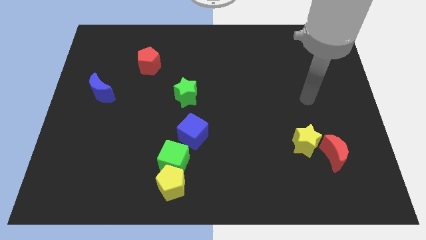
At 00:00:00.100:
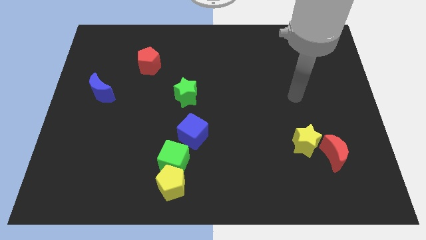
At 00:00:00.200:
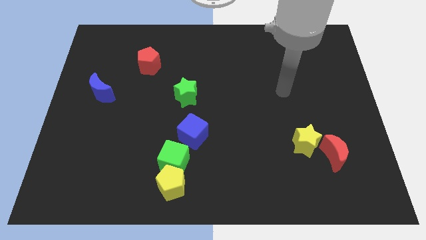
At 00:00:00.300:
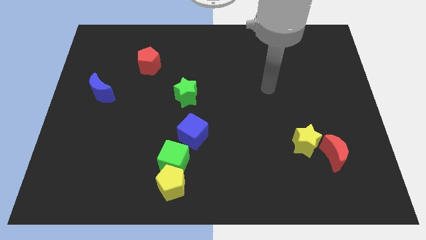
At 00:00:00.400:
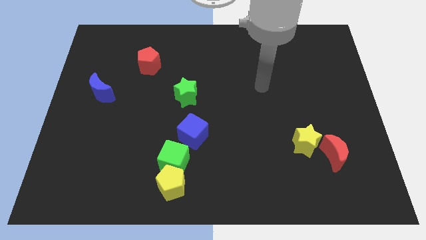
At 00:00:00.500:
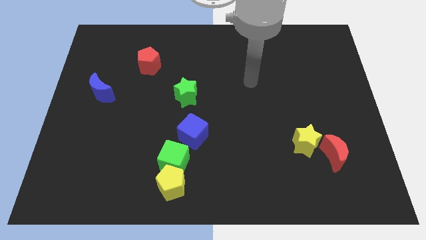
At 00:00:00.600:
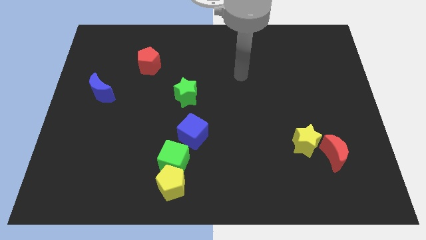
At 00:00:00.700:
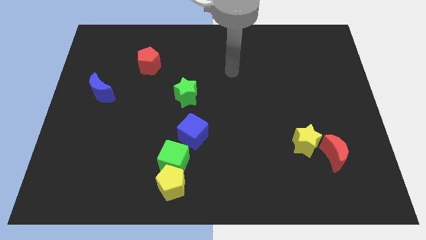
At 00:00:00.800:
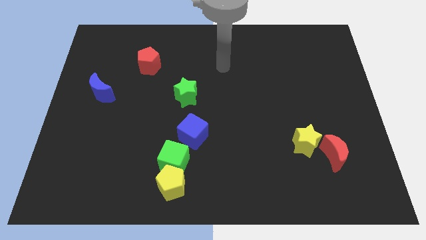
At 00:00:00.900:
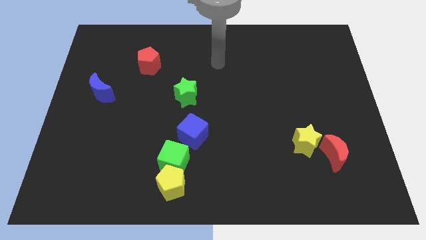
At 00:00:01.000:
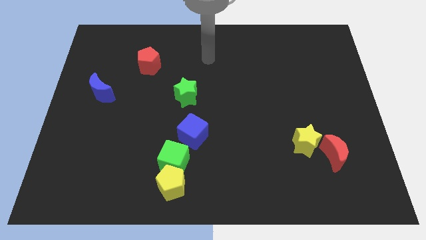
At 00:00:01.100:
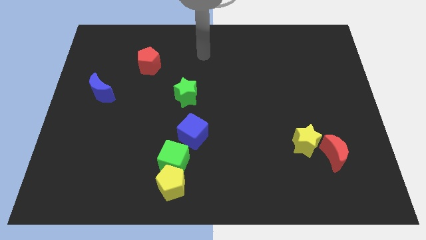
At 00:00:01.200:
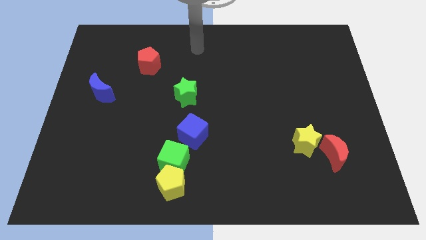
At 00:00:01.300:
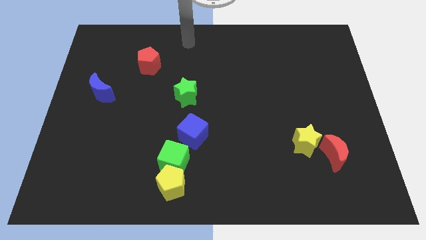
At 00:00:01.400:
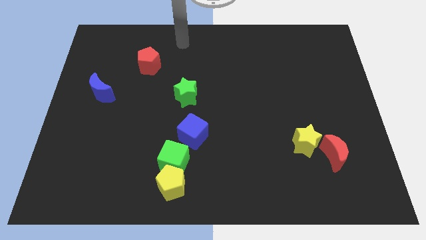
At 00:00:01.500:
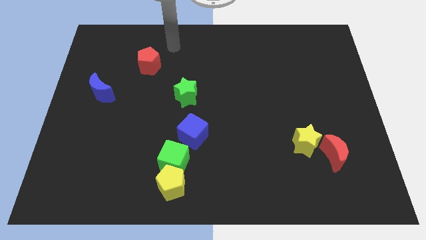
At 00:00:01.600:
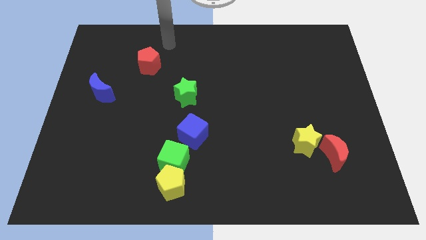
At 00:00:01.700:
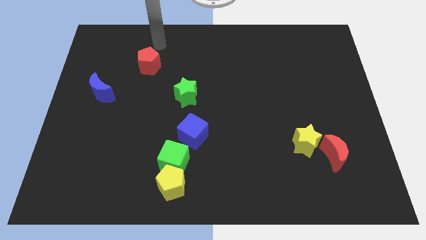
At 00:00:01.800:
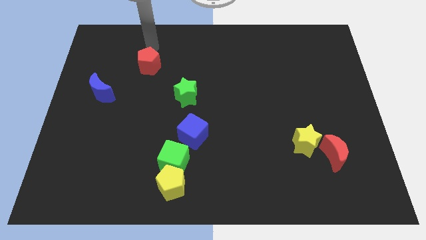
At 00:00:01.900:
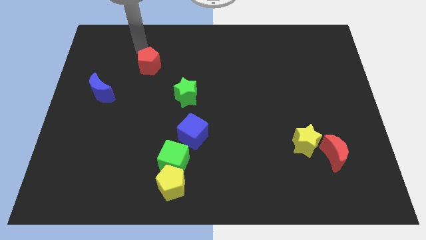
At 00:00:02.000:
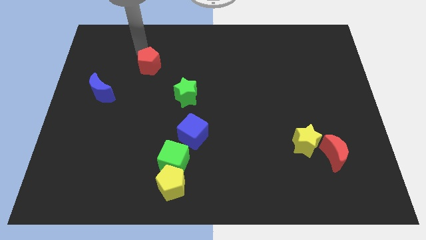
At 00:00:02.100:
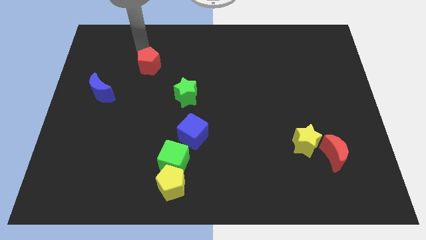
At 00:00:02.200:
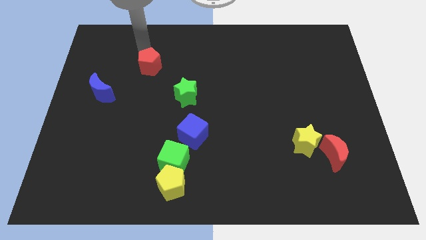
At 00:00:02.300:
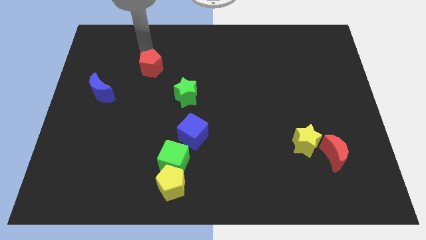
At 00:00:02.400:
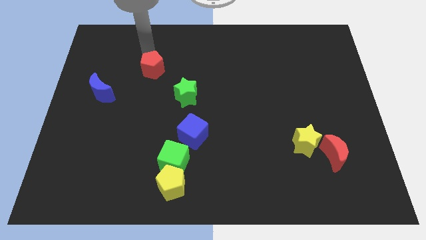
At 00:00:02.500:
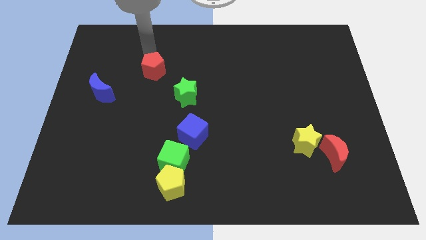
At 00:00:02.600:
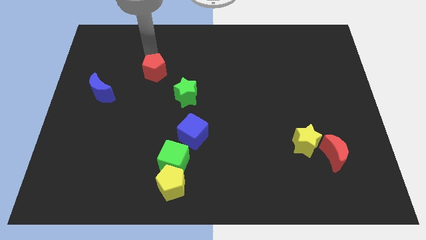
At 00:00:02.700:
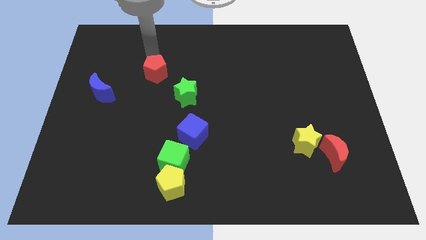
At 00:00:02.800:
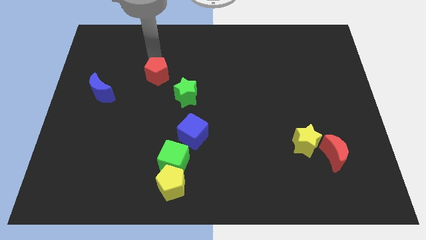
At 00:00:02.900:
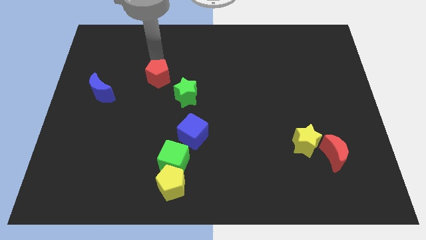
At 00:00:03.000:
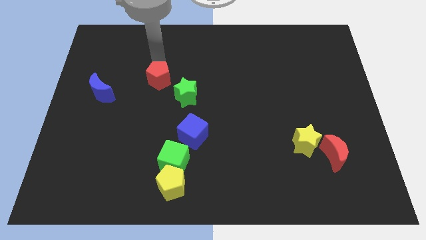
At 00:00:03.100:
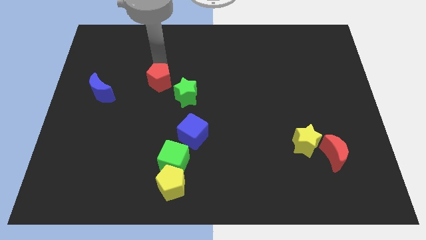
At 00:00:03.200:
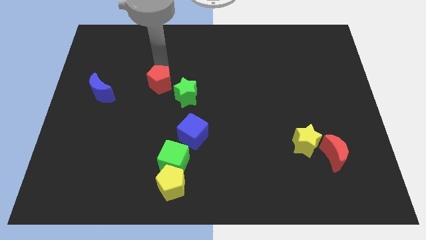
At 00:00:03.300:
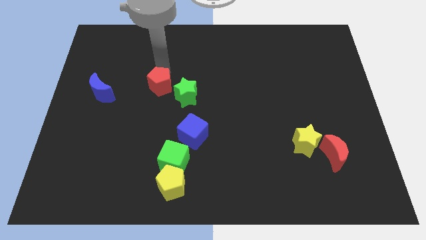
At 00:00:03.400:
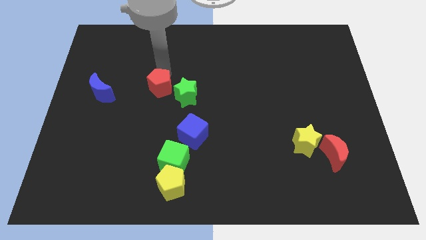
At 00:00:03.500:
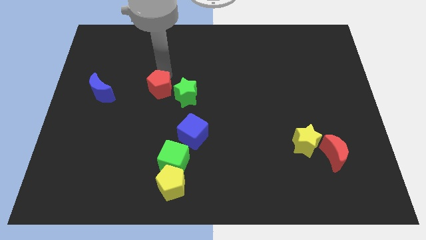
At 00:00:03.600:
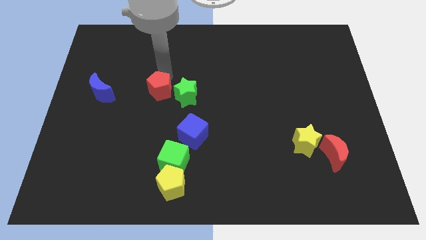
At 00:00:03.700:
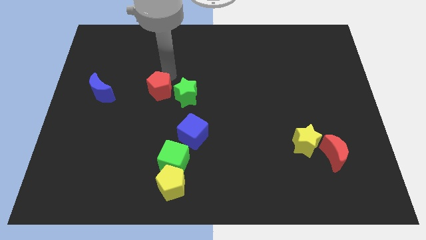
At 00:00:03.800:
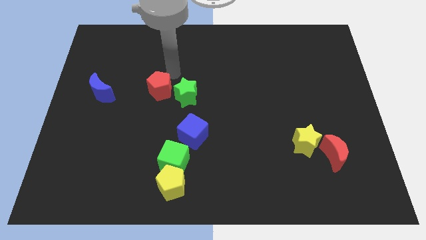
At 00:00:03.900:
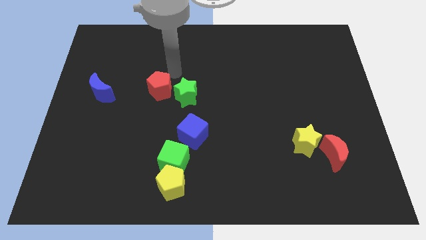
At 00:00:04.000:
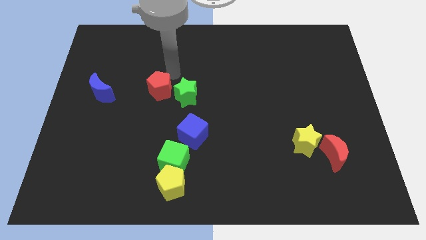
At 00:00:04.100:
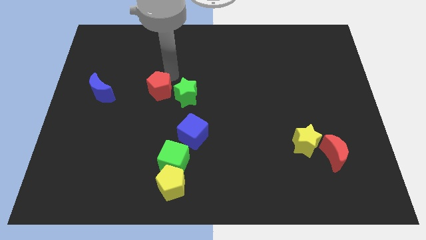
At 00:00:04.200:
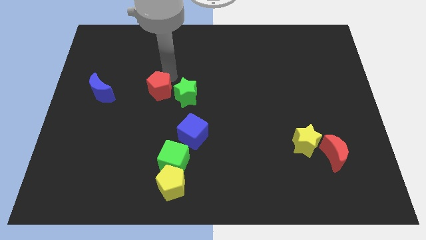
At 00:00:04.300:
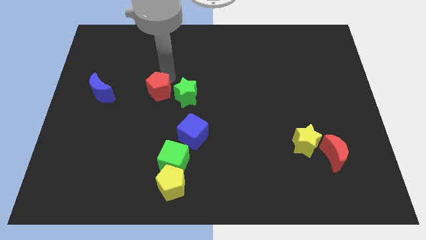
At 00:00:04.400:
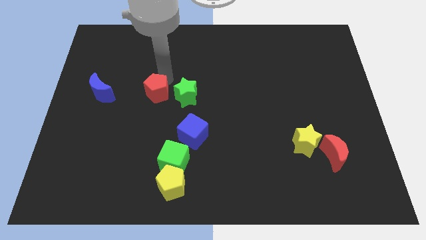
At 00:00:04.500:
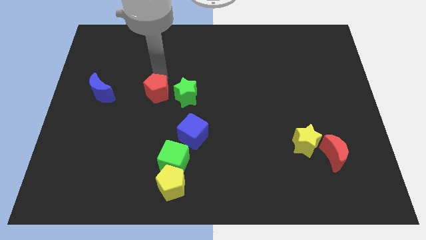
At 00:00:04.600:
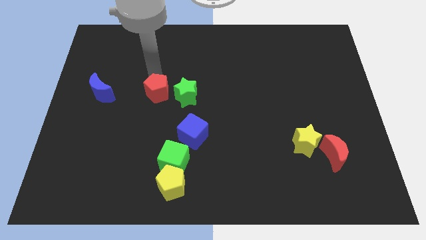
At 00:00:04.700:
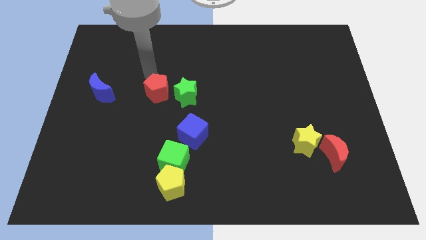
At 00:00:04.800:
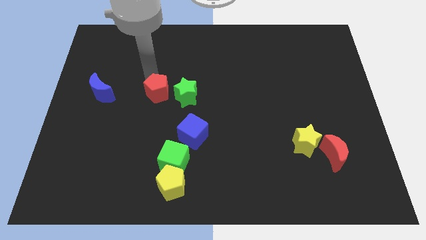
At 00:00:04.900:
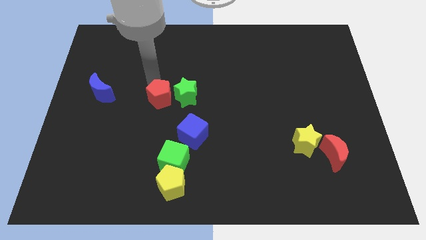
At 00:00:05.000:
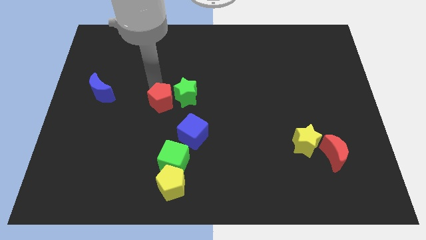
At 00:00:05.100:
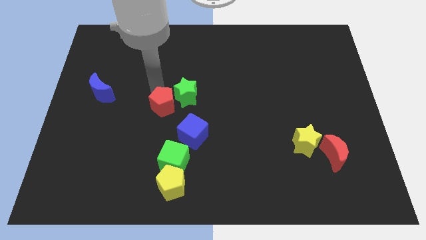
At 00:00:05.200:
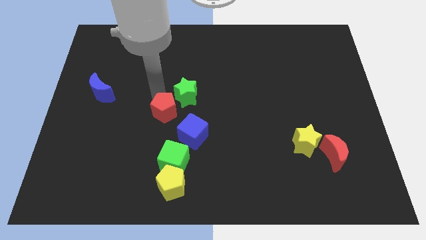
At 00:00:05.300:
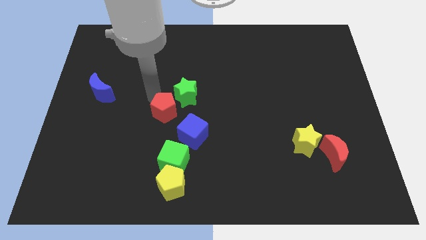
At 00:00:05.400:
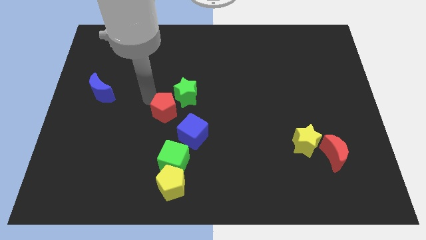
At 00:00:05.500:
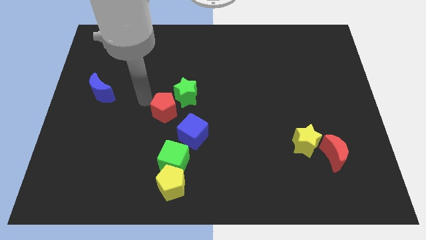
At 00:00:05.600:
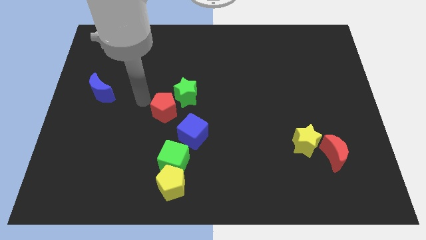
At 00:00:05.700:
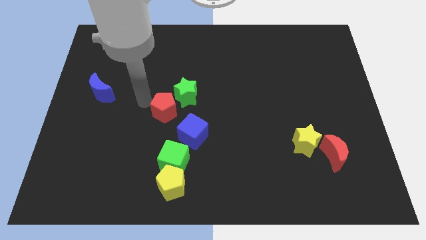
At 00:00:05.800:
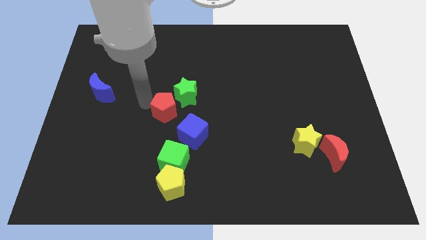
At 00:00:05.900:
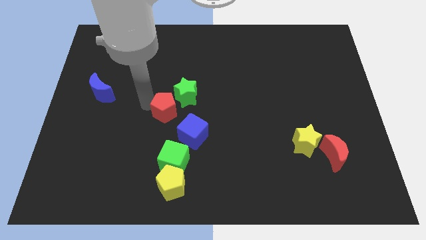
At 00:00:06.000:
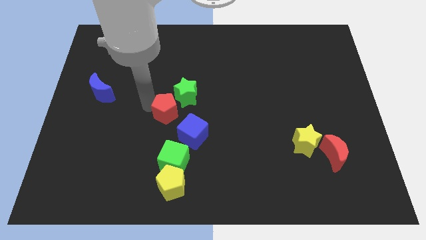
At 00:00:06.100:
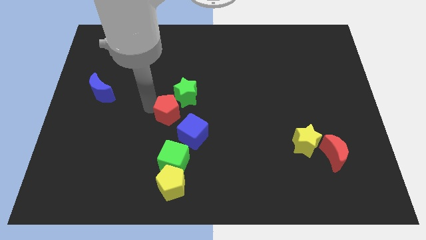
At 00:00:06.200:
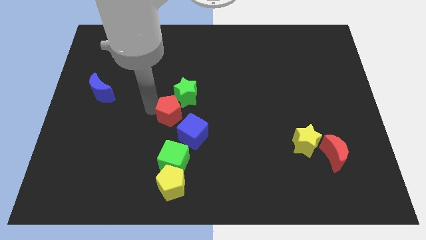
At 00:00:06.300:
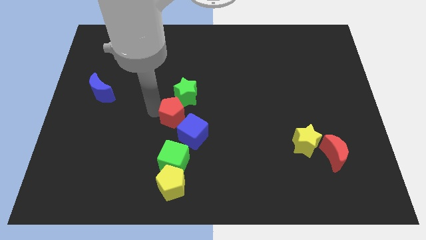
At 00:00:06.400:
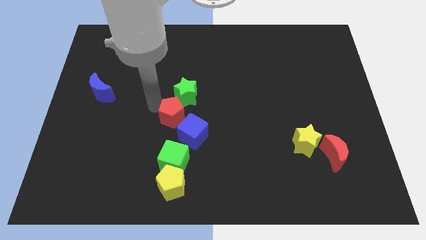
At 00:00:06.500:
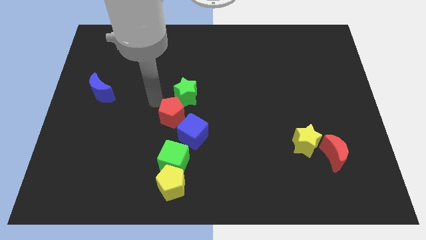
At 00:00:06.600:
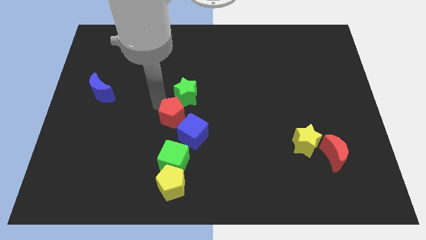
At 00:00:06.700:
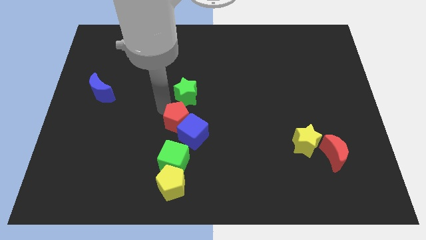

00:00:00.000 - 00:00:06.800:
put the red pentagon to the blue cube

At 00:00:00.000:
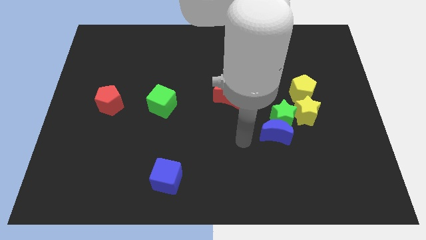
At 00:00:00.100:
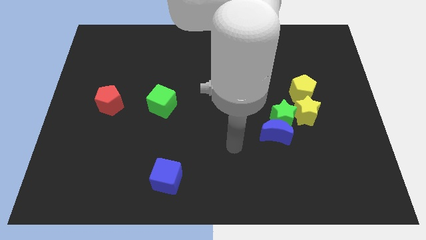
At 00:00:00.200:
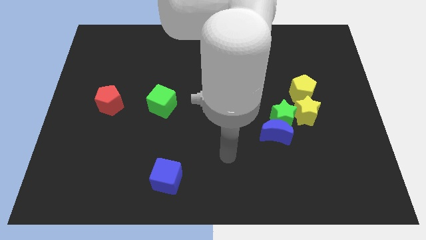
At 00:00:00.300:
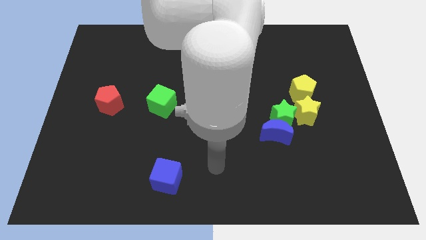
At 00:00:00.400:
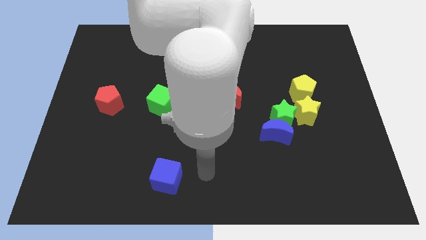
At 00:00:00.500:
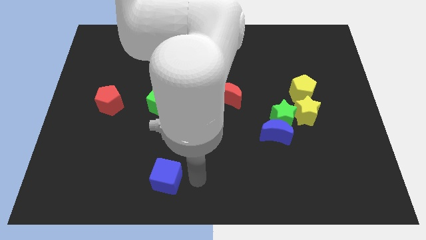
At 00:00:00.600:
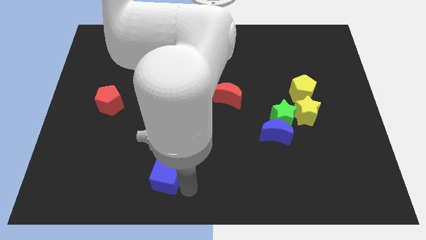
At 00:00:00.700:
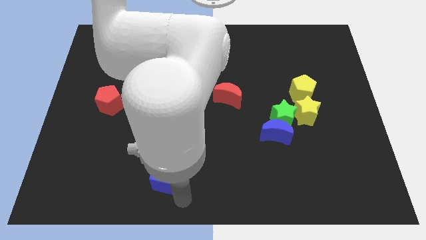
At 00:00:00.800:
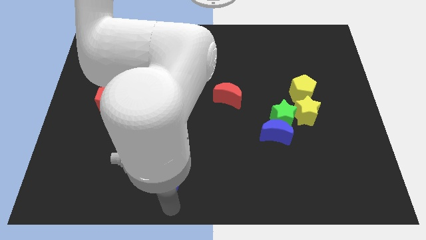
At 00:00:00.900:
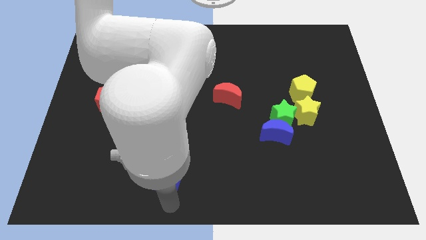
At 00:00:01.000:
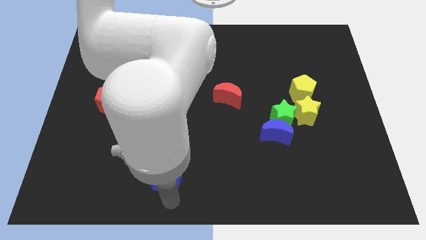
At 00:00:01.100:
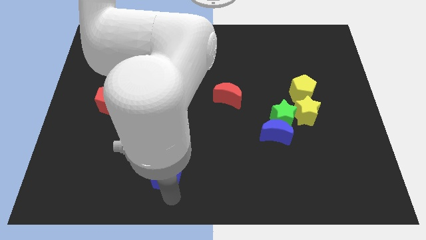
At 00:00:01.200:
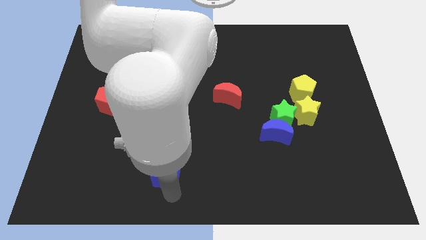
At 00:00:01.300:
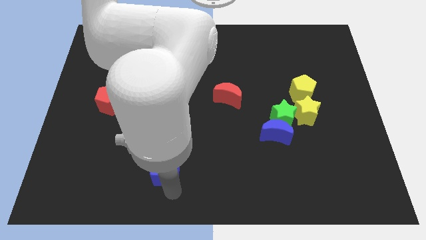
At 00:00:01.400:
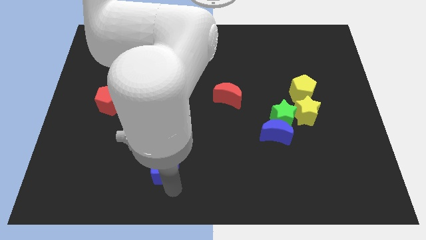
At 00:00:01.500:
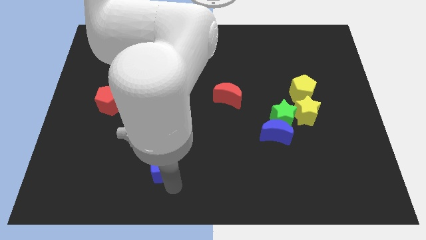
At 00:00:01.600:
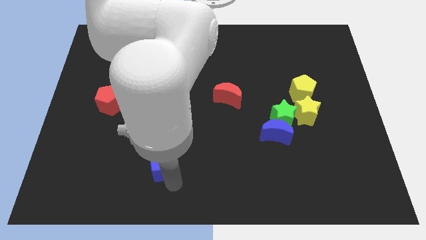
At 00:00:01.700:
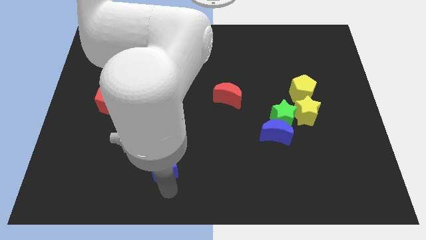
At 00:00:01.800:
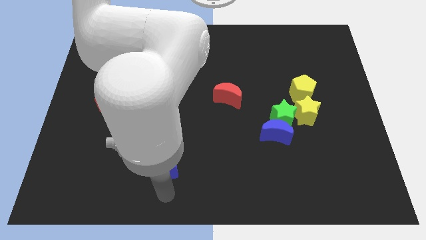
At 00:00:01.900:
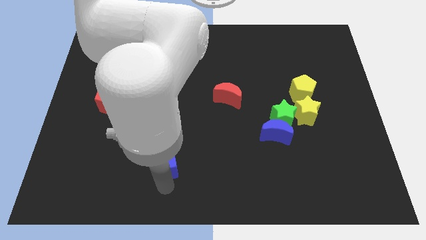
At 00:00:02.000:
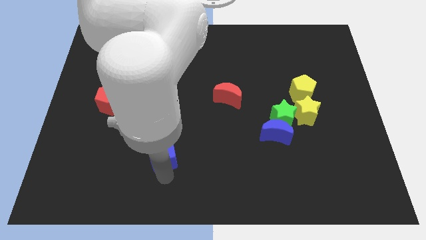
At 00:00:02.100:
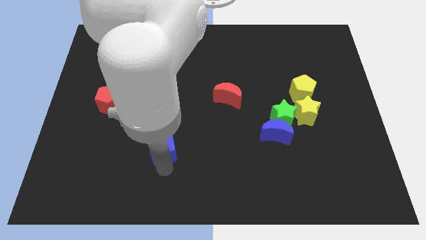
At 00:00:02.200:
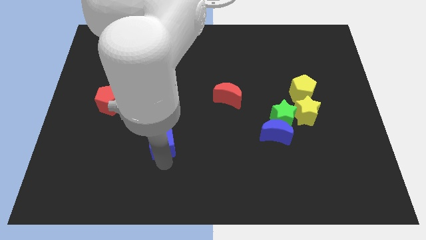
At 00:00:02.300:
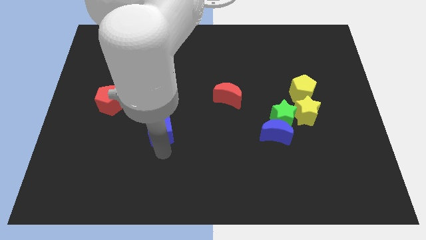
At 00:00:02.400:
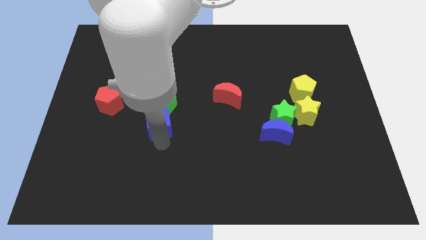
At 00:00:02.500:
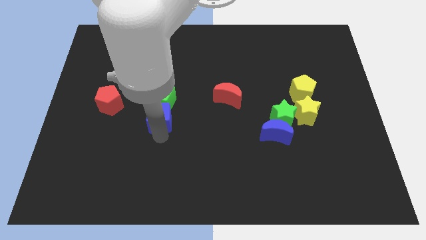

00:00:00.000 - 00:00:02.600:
push the blue cube close to the green cube
